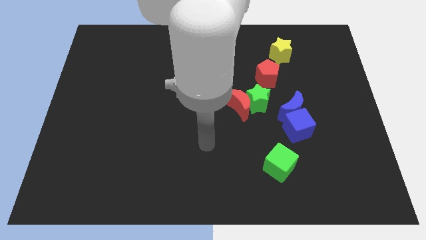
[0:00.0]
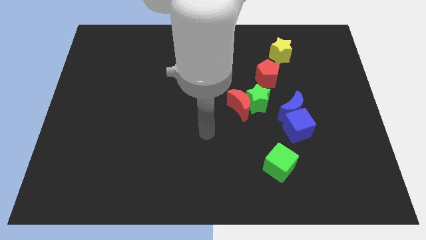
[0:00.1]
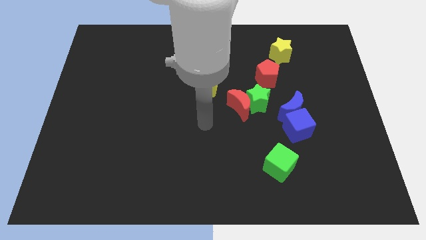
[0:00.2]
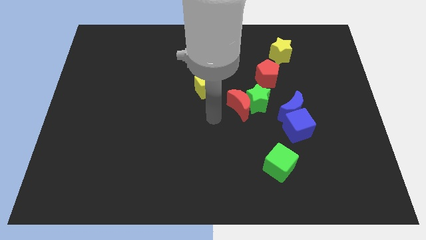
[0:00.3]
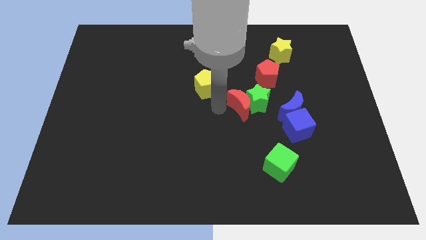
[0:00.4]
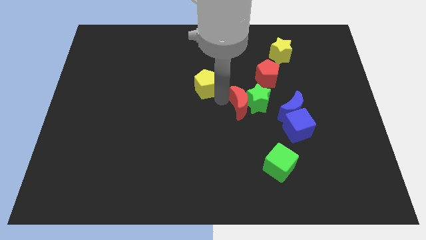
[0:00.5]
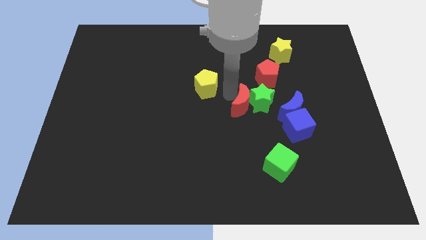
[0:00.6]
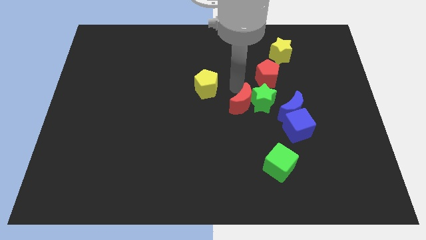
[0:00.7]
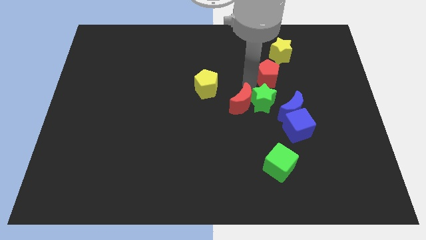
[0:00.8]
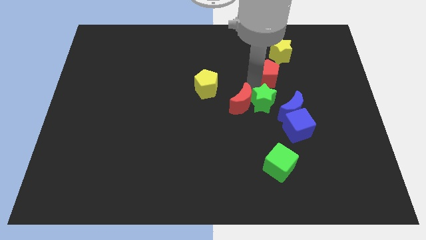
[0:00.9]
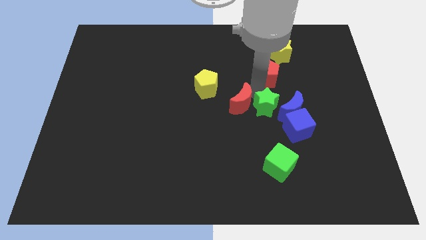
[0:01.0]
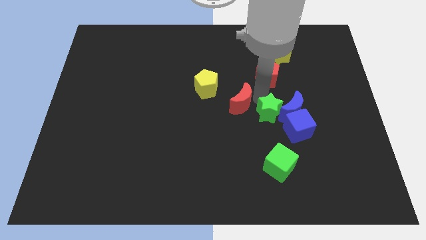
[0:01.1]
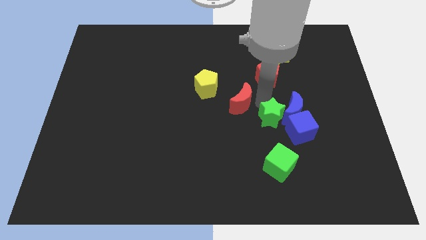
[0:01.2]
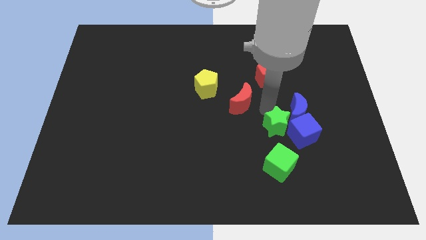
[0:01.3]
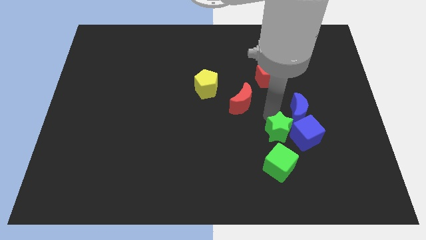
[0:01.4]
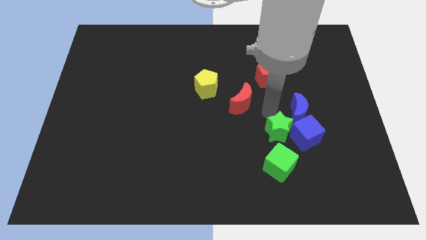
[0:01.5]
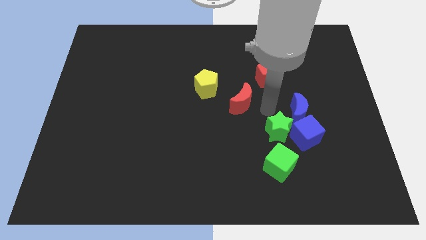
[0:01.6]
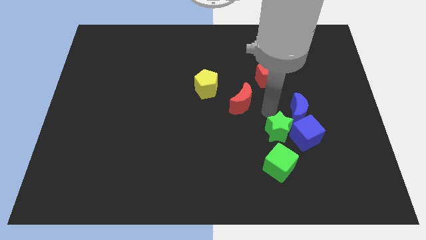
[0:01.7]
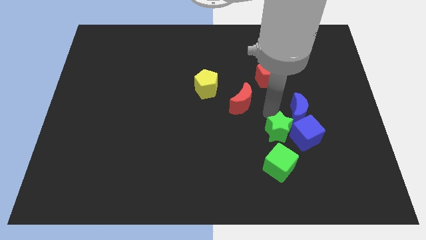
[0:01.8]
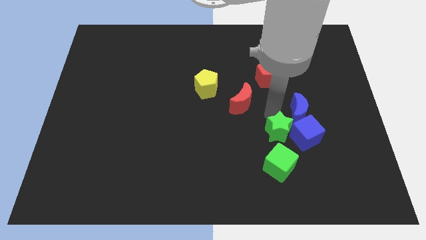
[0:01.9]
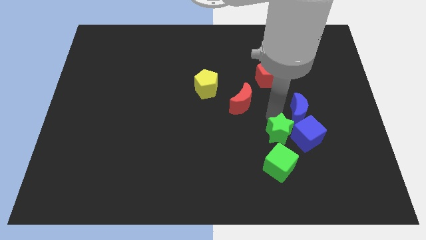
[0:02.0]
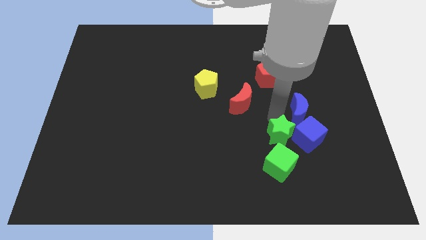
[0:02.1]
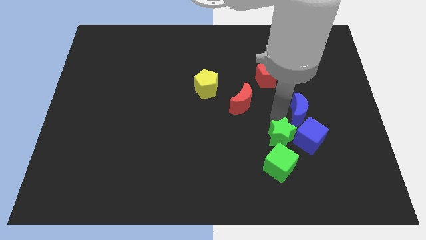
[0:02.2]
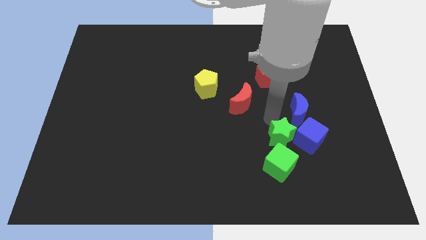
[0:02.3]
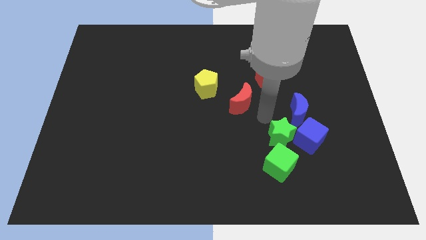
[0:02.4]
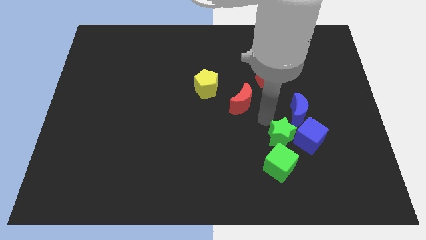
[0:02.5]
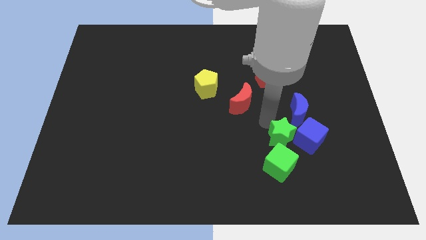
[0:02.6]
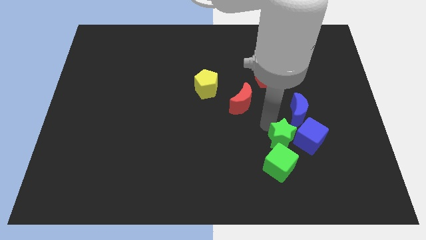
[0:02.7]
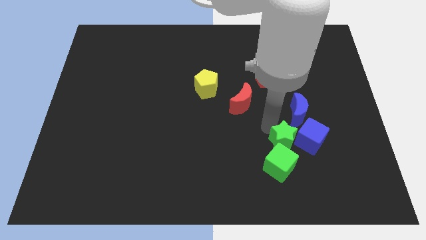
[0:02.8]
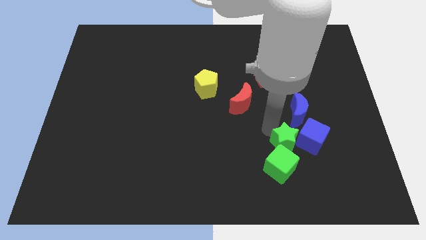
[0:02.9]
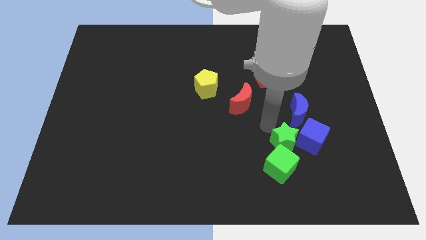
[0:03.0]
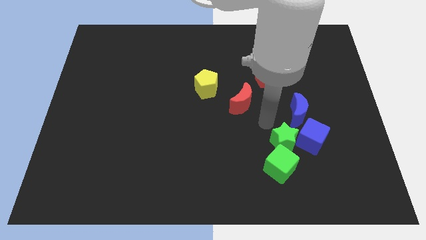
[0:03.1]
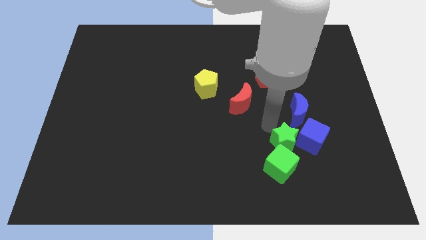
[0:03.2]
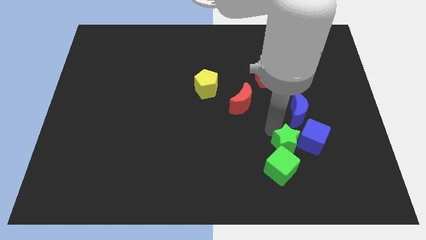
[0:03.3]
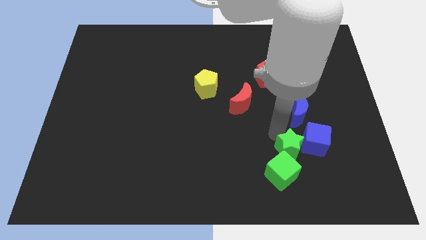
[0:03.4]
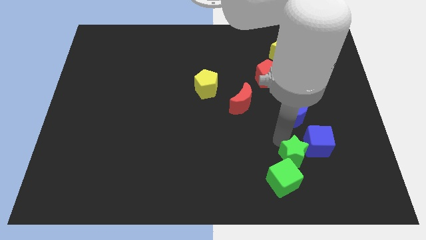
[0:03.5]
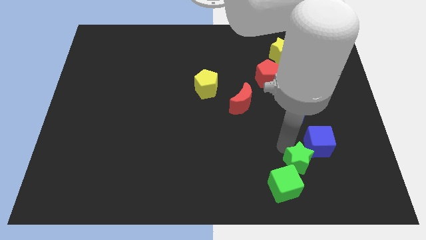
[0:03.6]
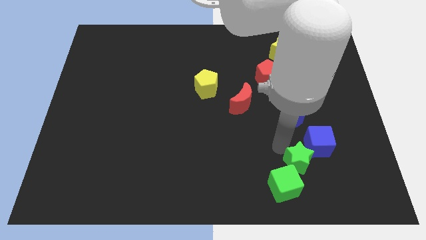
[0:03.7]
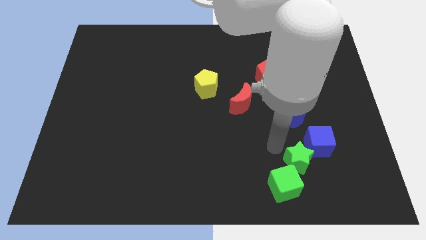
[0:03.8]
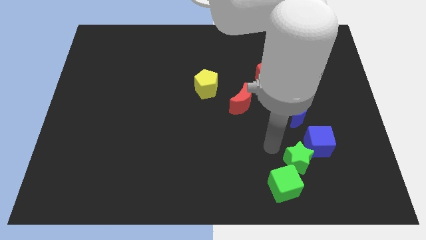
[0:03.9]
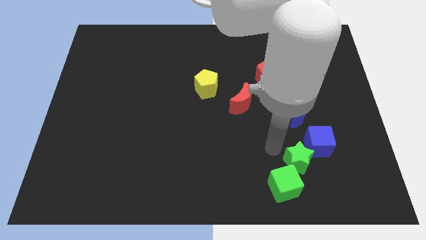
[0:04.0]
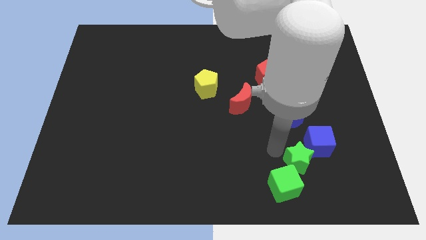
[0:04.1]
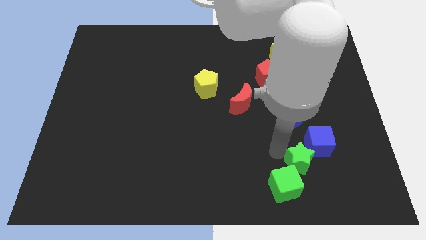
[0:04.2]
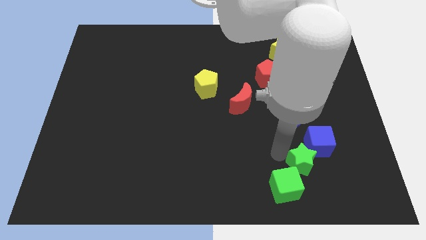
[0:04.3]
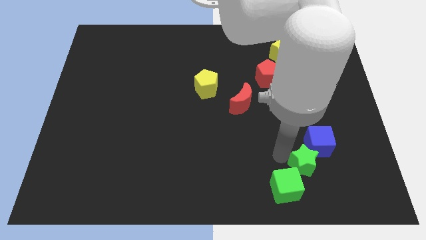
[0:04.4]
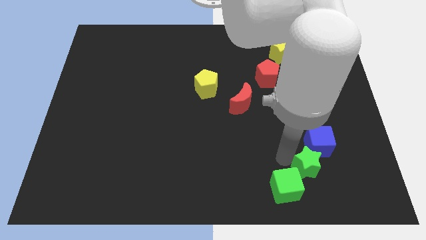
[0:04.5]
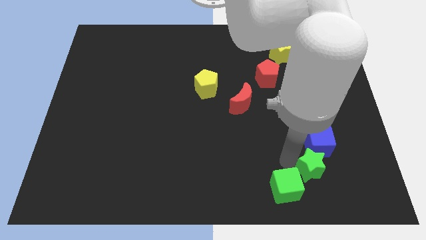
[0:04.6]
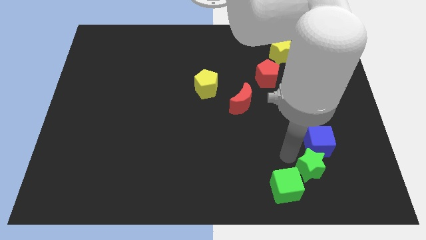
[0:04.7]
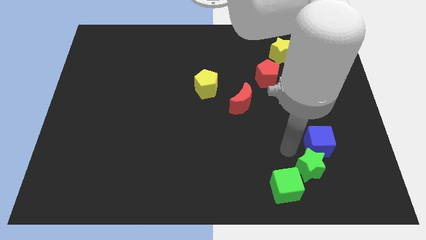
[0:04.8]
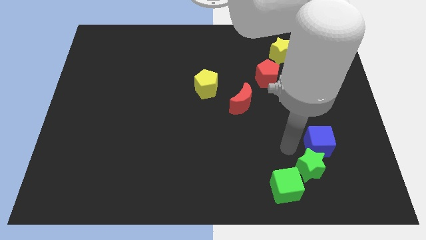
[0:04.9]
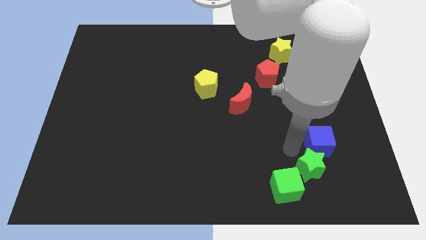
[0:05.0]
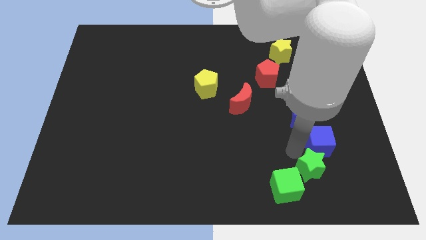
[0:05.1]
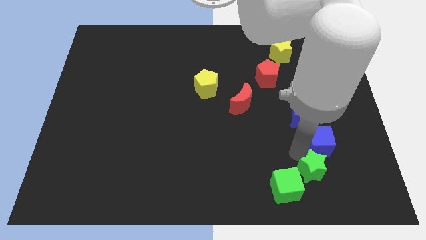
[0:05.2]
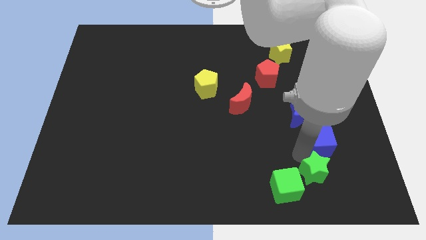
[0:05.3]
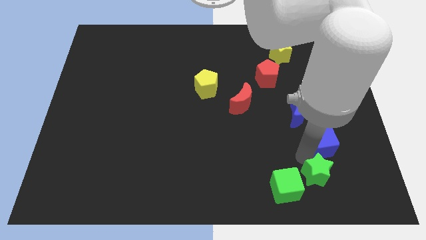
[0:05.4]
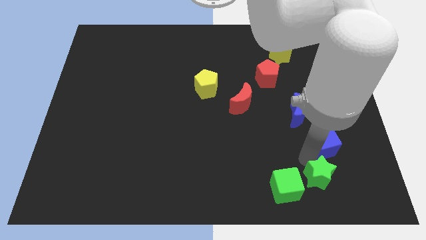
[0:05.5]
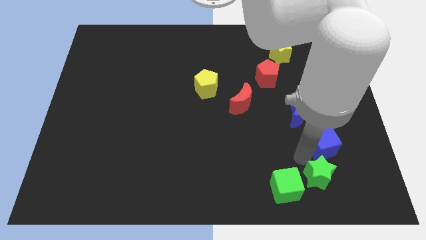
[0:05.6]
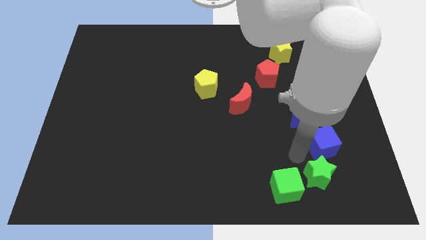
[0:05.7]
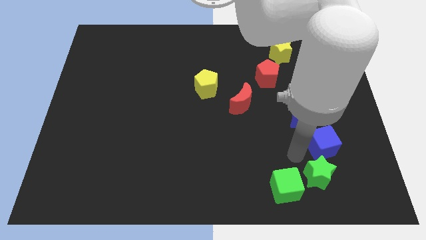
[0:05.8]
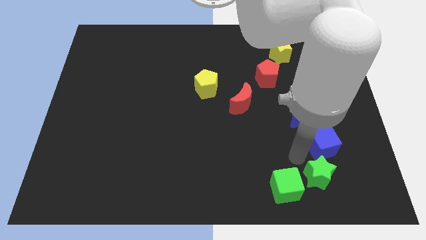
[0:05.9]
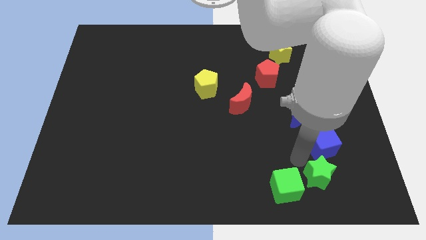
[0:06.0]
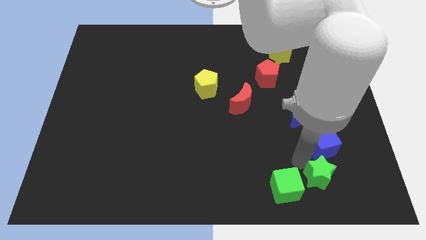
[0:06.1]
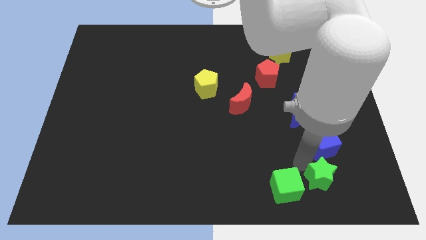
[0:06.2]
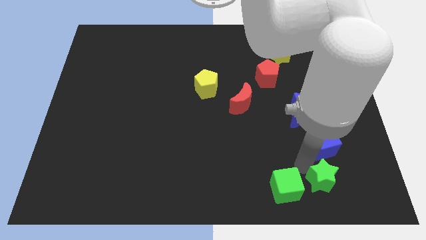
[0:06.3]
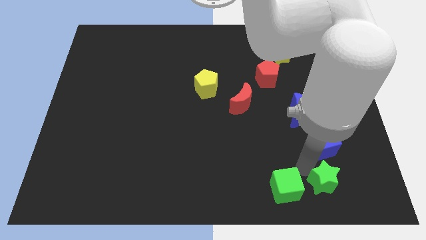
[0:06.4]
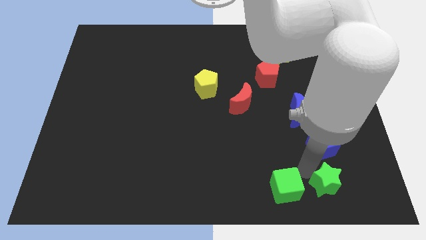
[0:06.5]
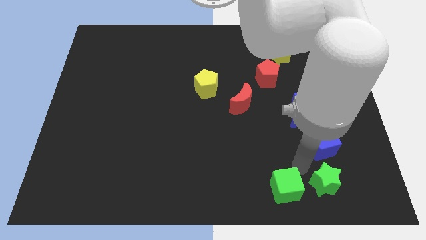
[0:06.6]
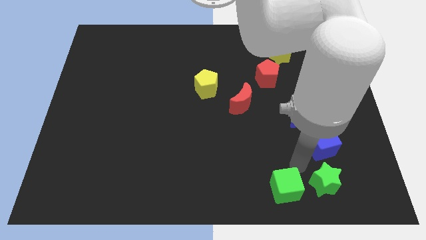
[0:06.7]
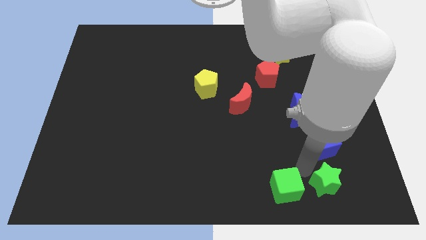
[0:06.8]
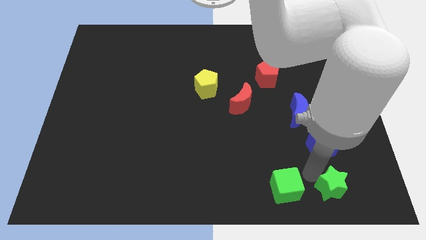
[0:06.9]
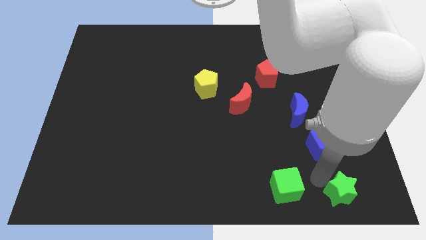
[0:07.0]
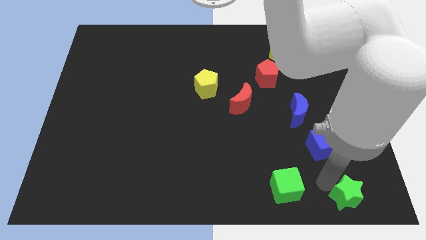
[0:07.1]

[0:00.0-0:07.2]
slide the green star to the bottom right
